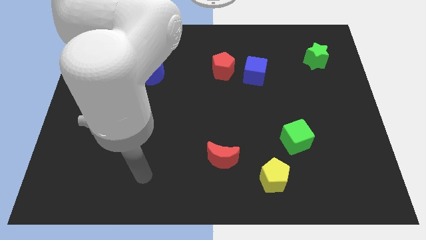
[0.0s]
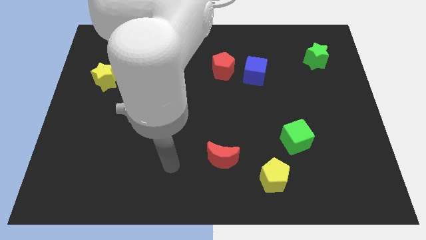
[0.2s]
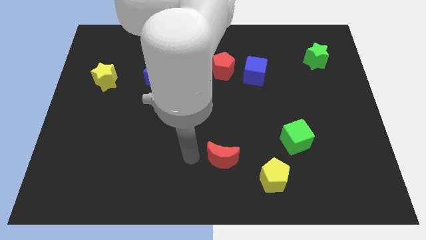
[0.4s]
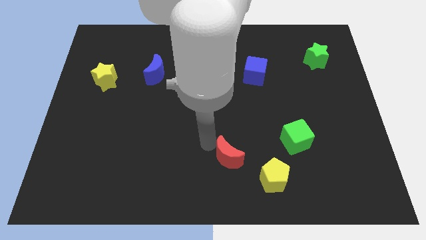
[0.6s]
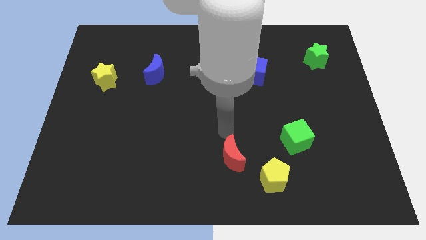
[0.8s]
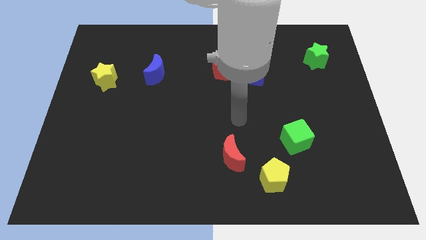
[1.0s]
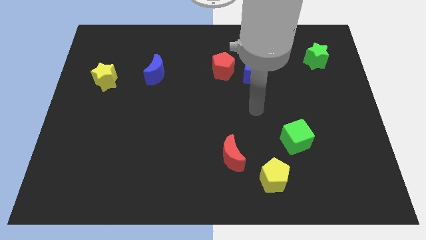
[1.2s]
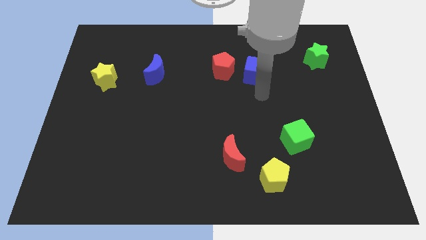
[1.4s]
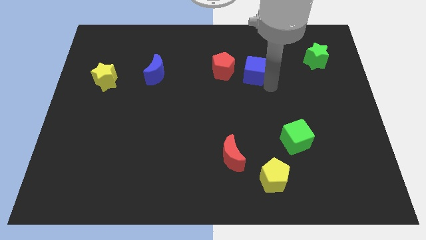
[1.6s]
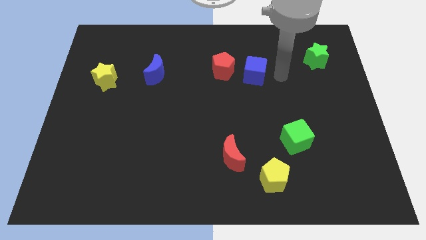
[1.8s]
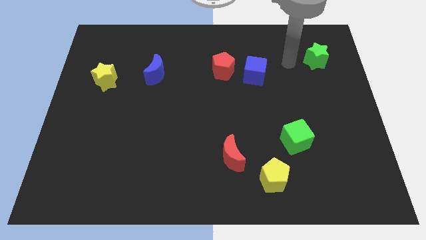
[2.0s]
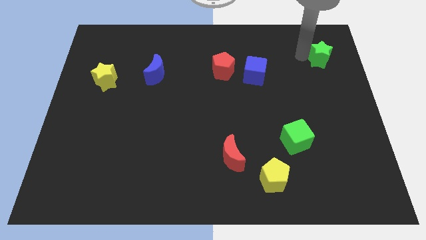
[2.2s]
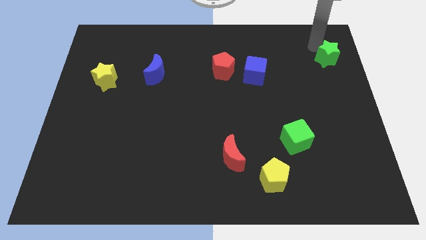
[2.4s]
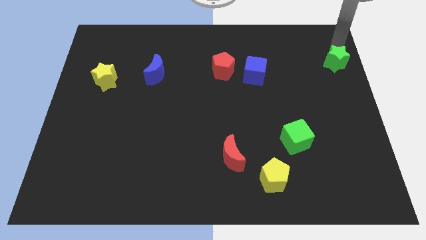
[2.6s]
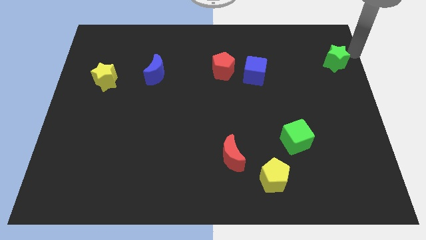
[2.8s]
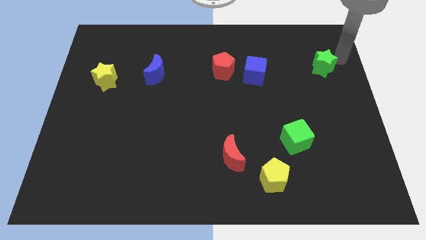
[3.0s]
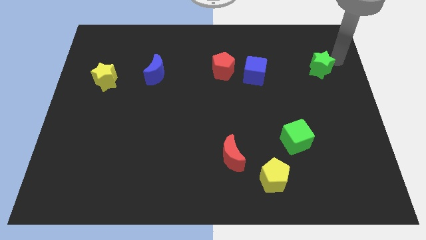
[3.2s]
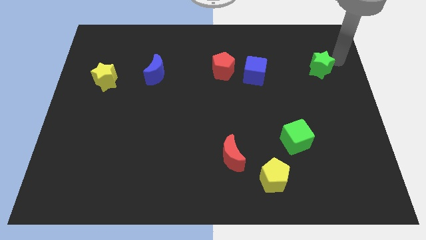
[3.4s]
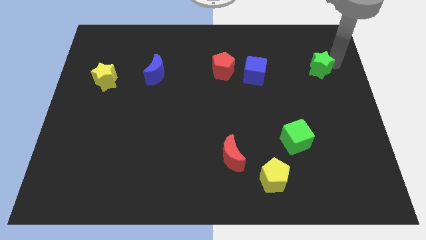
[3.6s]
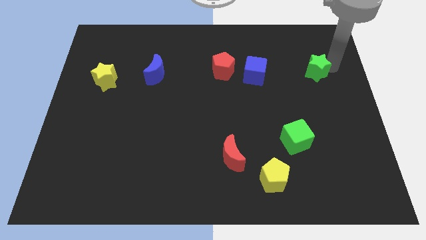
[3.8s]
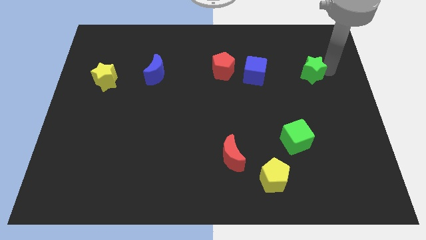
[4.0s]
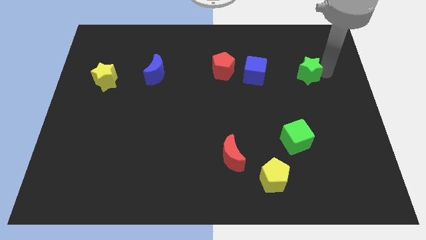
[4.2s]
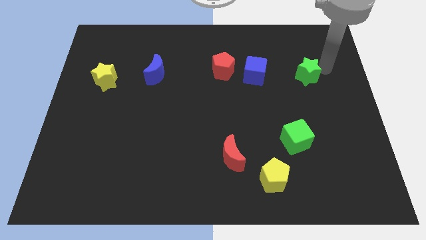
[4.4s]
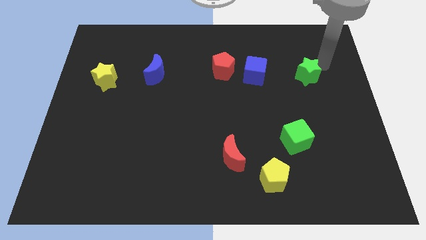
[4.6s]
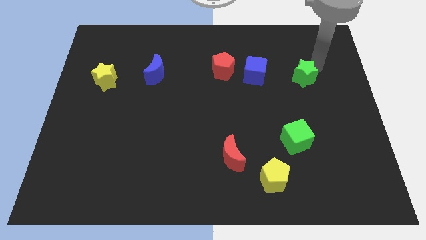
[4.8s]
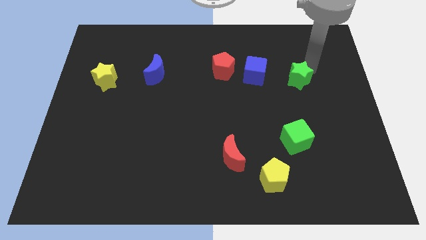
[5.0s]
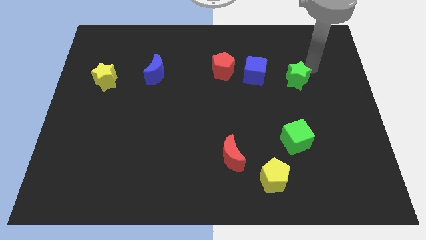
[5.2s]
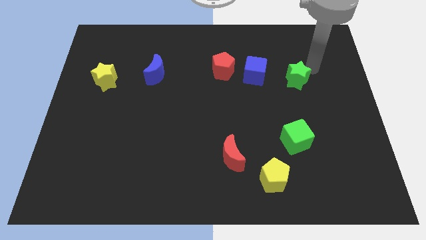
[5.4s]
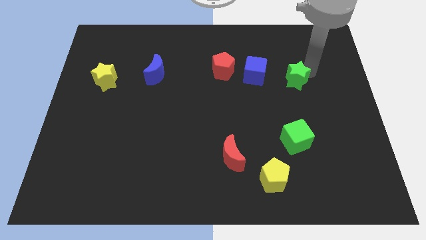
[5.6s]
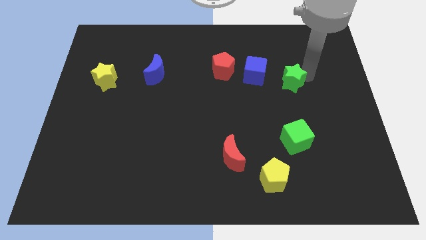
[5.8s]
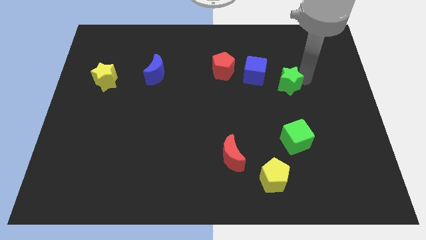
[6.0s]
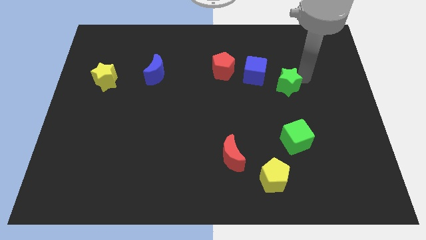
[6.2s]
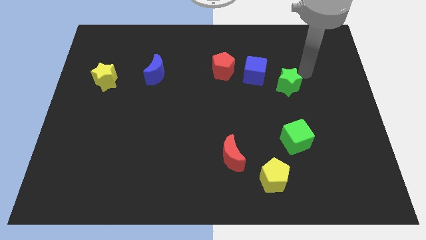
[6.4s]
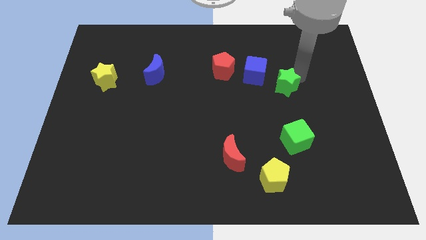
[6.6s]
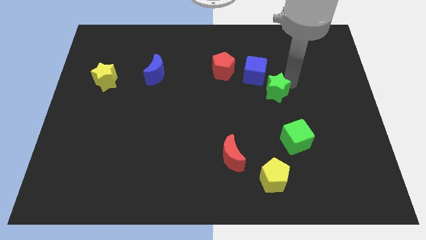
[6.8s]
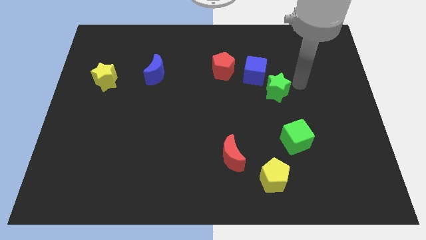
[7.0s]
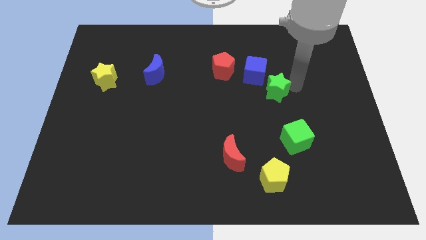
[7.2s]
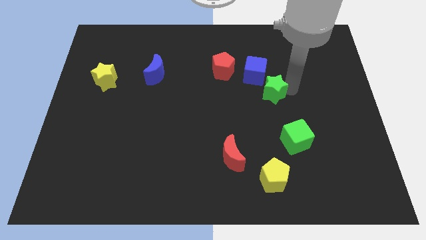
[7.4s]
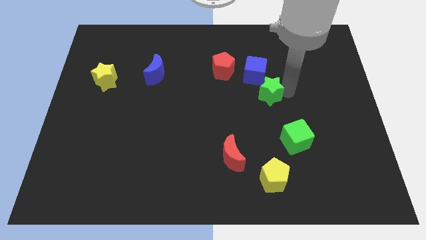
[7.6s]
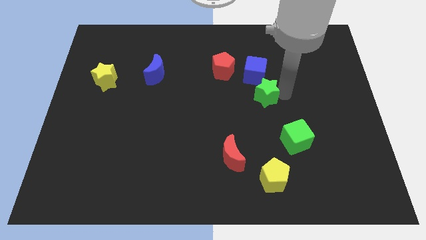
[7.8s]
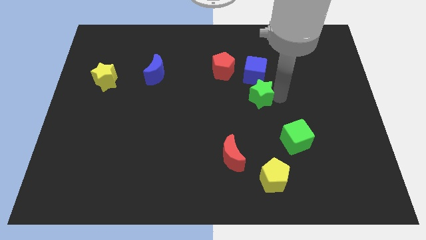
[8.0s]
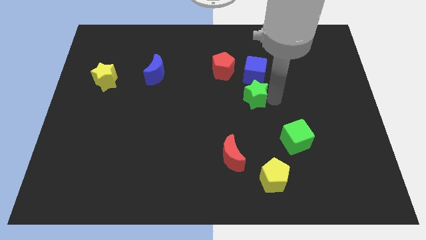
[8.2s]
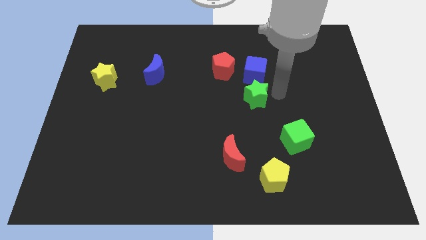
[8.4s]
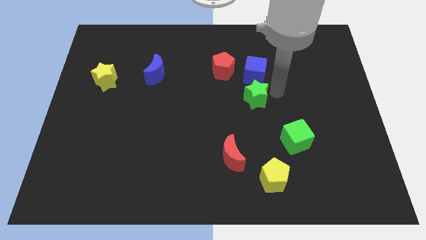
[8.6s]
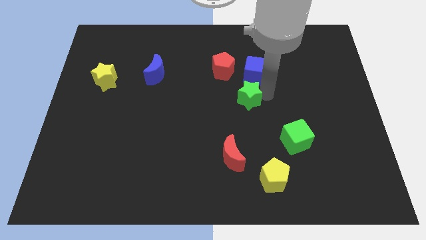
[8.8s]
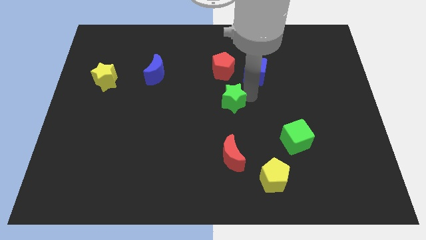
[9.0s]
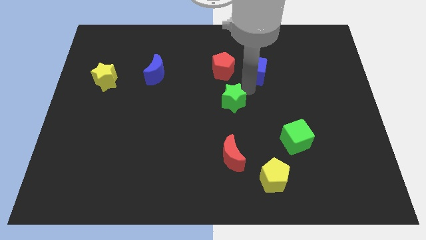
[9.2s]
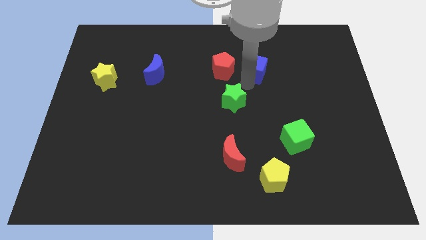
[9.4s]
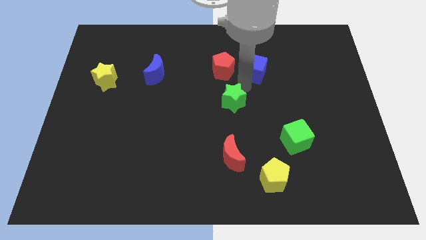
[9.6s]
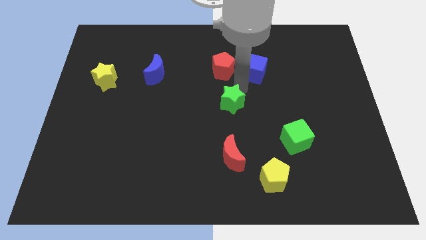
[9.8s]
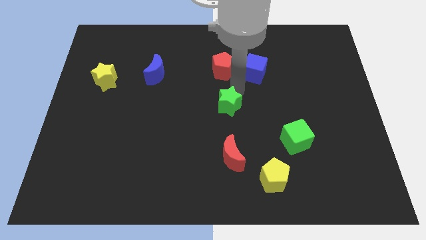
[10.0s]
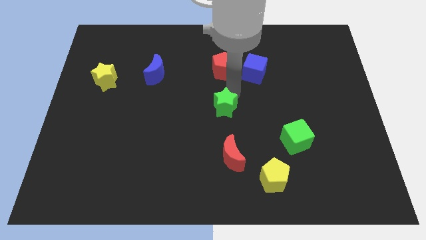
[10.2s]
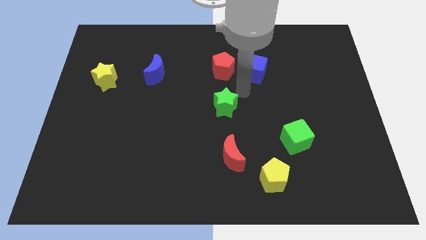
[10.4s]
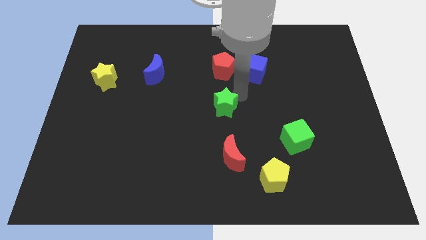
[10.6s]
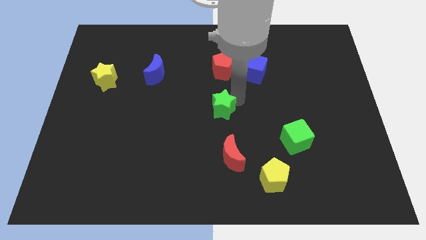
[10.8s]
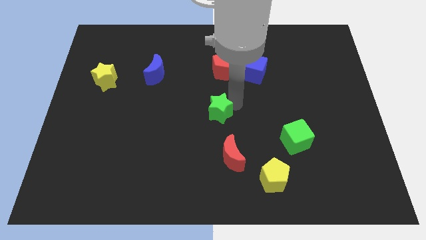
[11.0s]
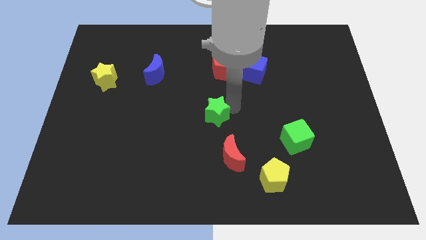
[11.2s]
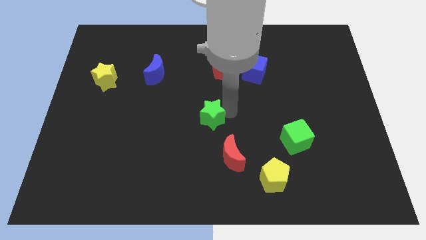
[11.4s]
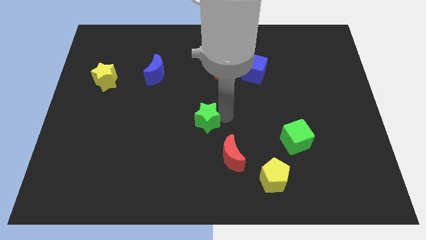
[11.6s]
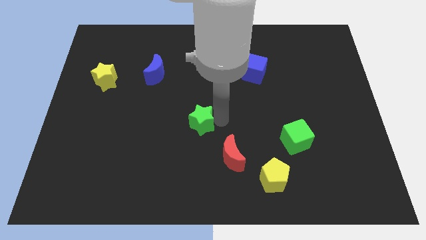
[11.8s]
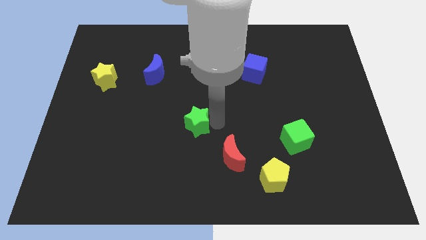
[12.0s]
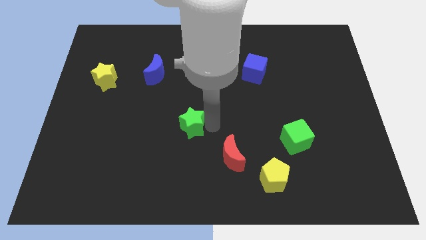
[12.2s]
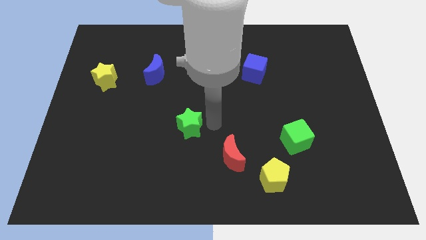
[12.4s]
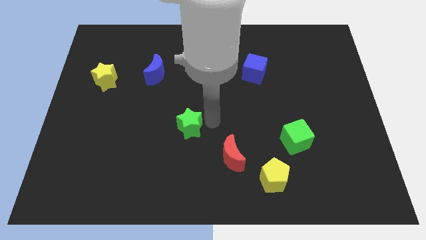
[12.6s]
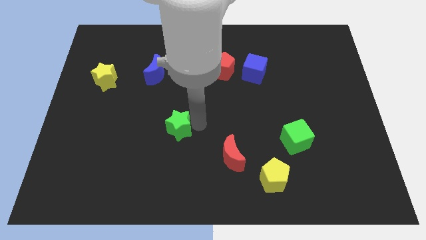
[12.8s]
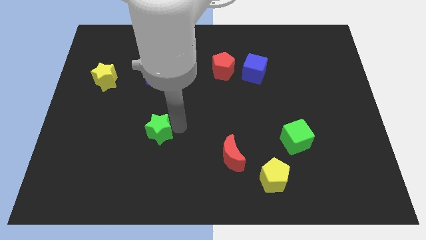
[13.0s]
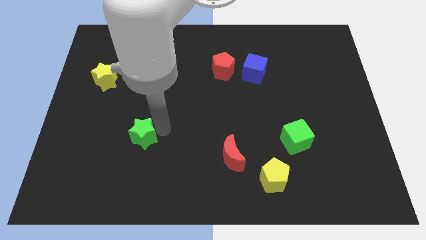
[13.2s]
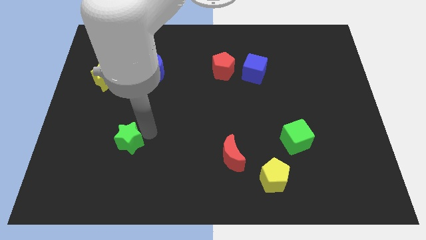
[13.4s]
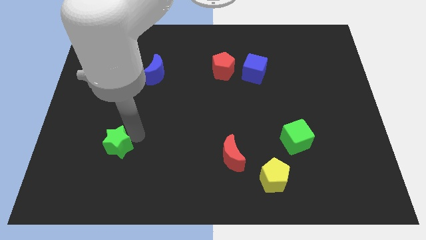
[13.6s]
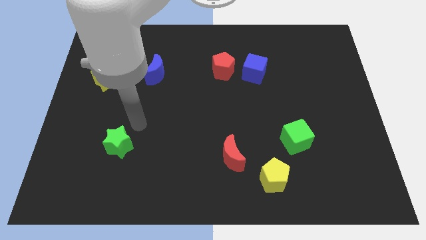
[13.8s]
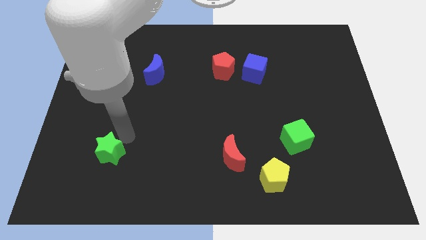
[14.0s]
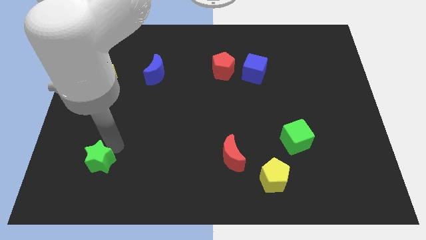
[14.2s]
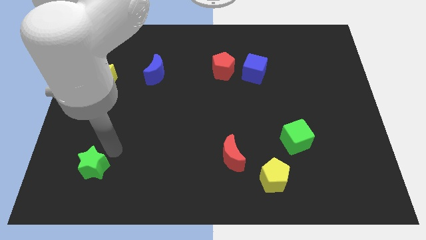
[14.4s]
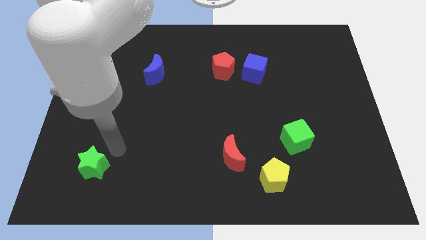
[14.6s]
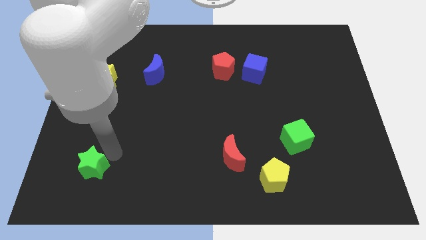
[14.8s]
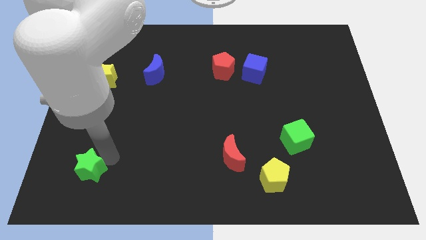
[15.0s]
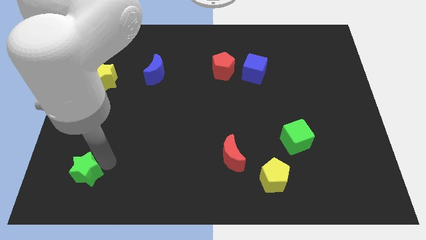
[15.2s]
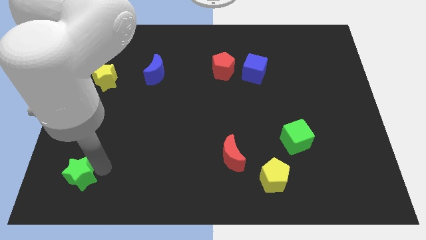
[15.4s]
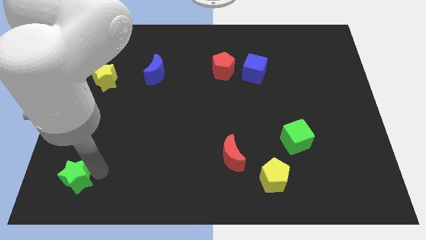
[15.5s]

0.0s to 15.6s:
put the green star to the bottom left corner
